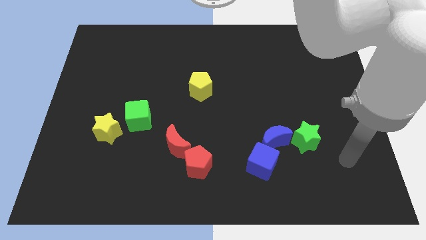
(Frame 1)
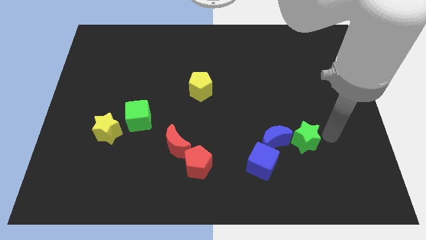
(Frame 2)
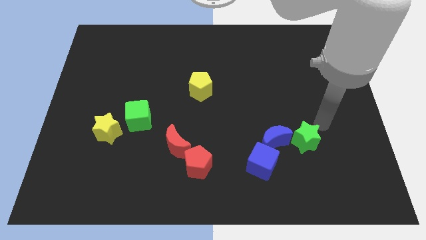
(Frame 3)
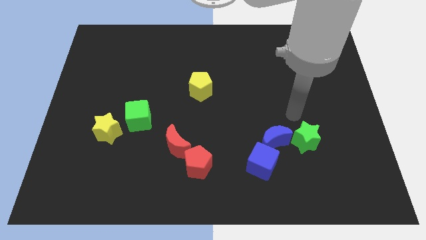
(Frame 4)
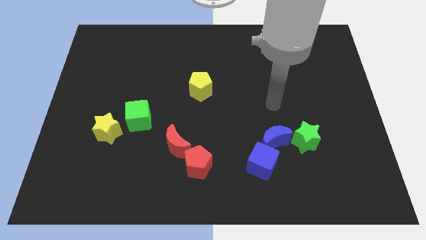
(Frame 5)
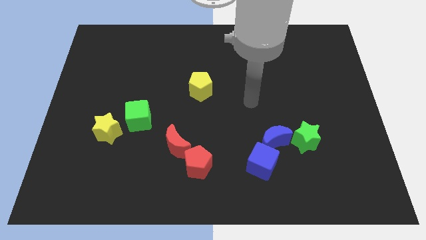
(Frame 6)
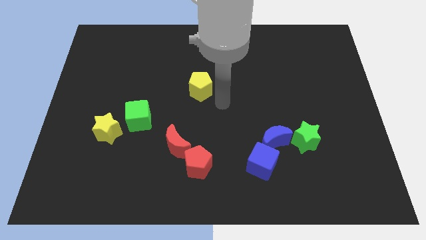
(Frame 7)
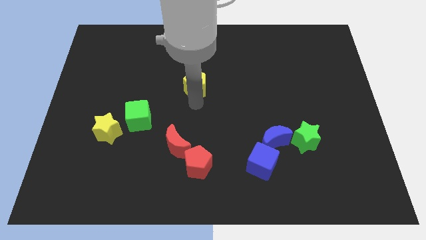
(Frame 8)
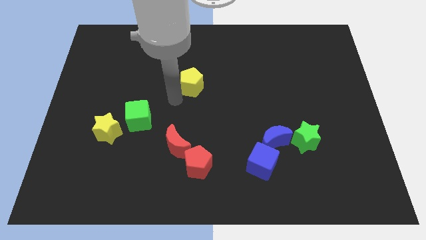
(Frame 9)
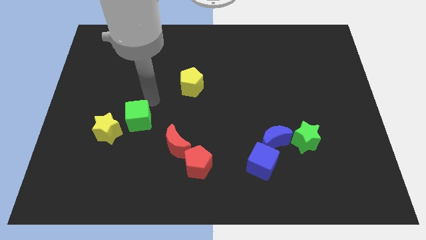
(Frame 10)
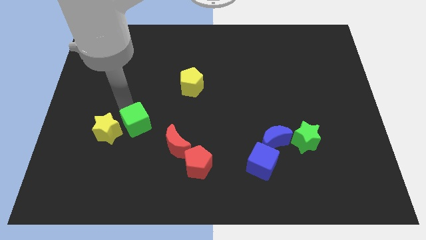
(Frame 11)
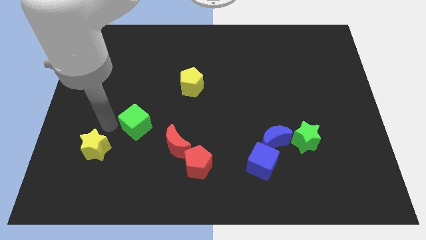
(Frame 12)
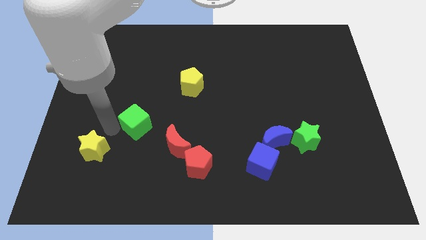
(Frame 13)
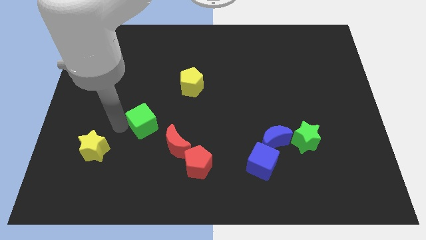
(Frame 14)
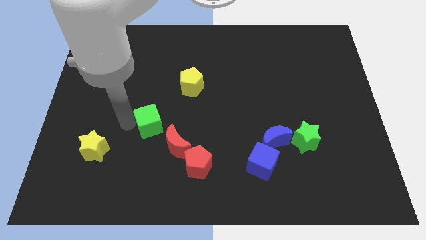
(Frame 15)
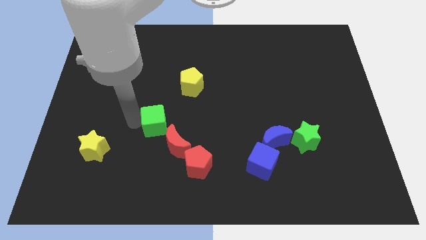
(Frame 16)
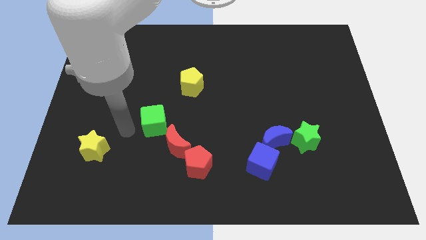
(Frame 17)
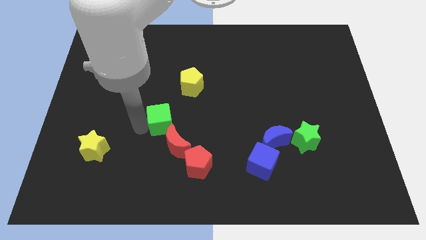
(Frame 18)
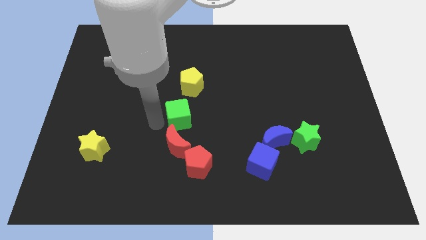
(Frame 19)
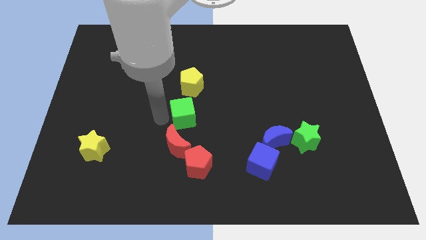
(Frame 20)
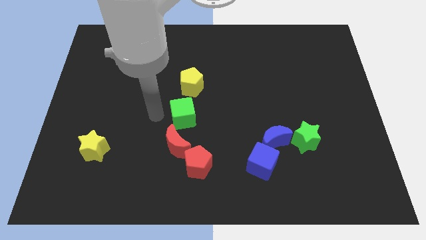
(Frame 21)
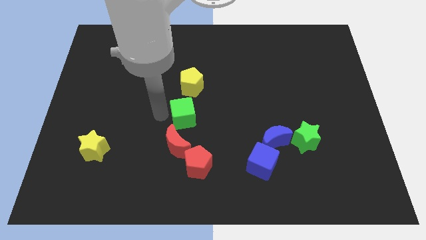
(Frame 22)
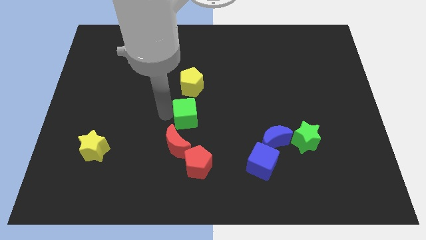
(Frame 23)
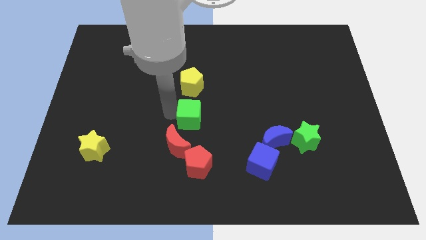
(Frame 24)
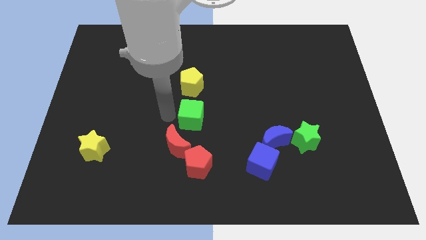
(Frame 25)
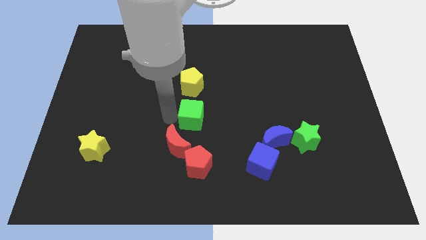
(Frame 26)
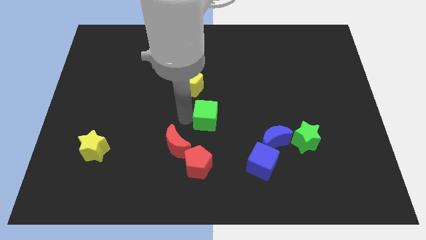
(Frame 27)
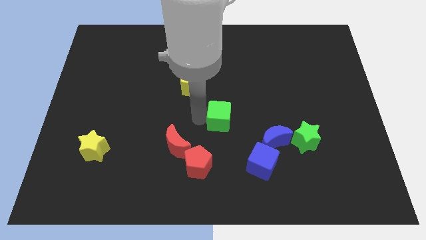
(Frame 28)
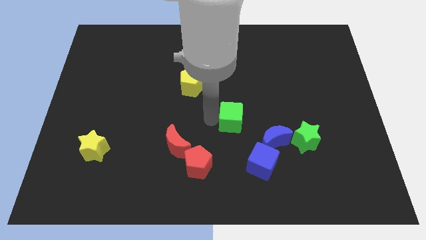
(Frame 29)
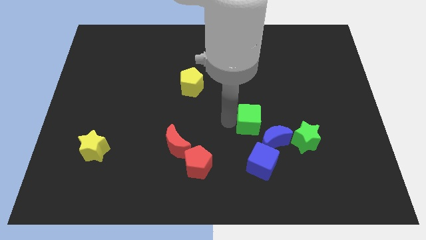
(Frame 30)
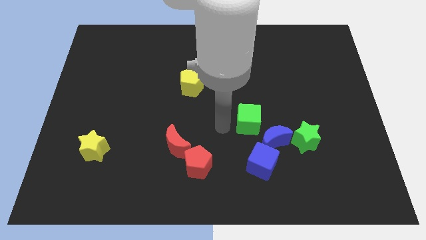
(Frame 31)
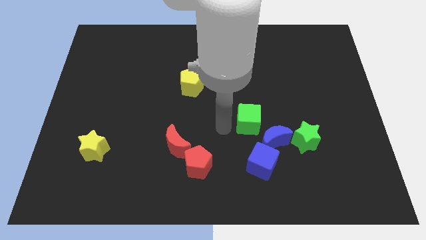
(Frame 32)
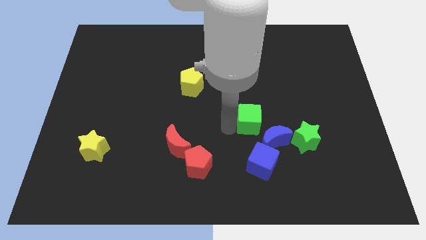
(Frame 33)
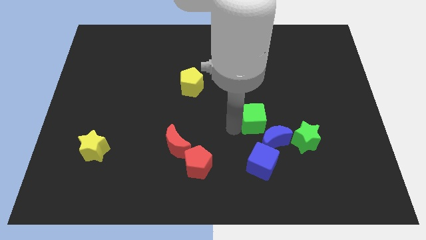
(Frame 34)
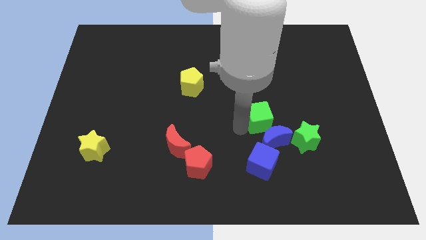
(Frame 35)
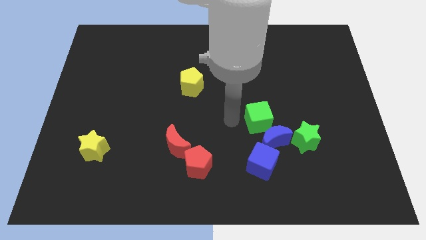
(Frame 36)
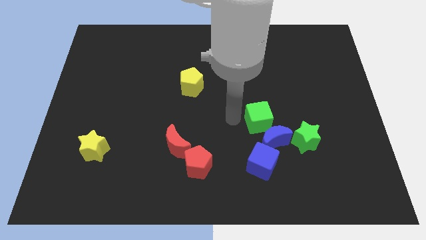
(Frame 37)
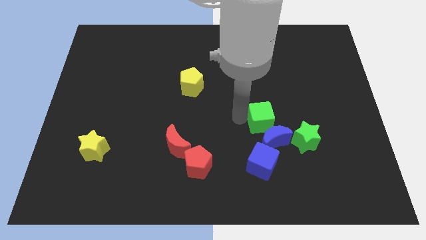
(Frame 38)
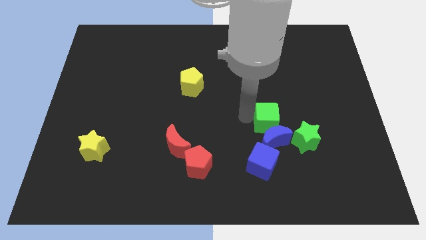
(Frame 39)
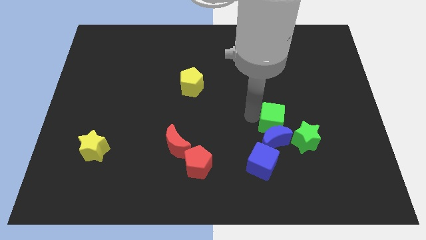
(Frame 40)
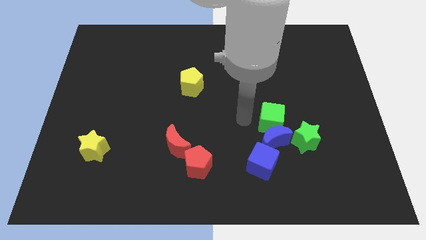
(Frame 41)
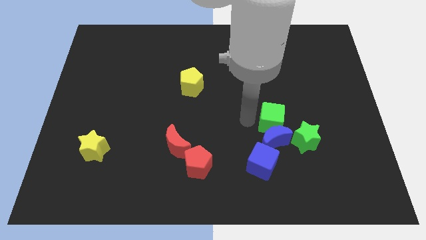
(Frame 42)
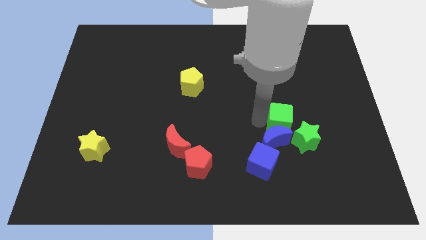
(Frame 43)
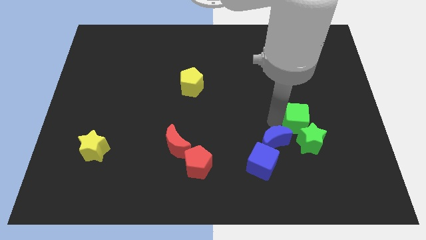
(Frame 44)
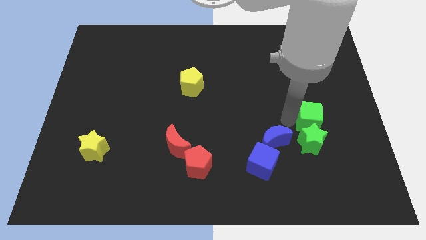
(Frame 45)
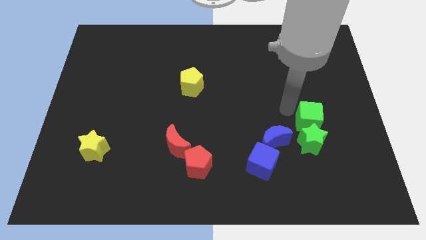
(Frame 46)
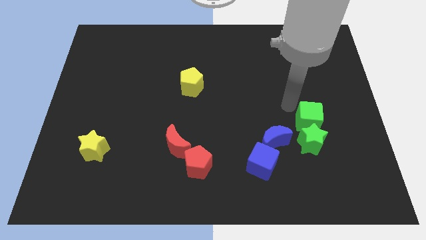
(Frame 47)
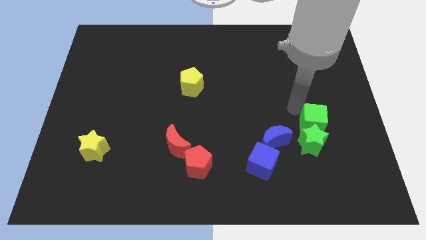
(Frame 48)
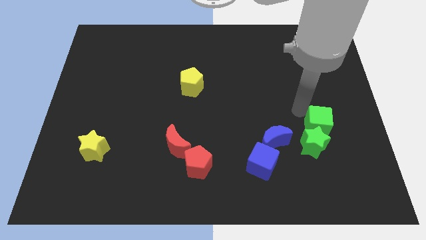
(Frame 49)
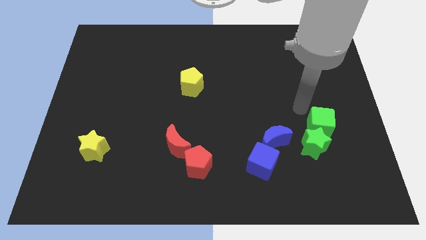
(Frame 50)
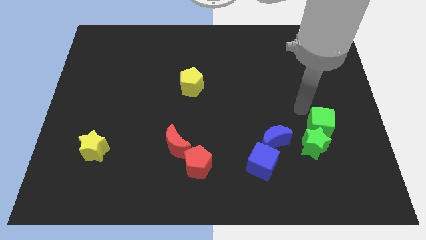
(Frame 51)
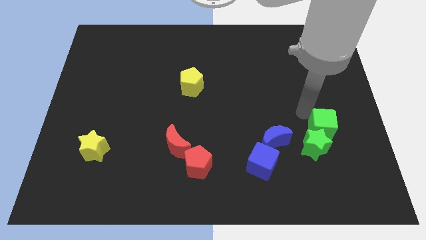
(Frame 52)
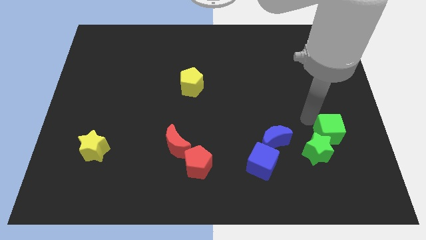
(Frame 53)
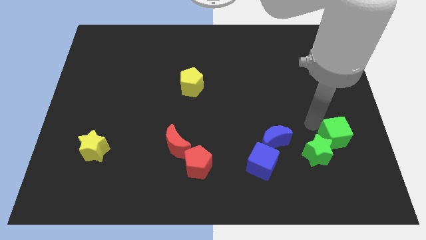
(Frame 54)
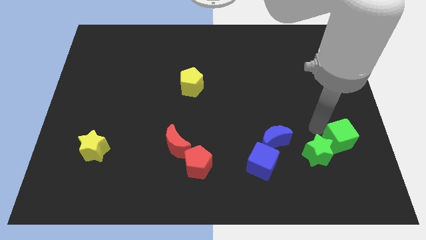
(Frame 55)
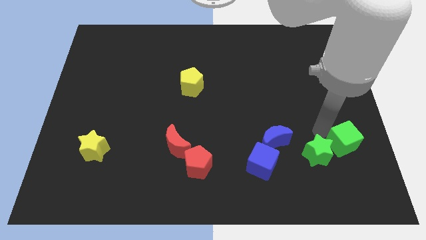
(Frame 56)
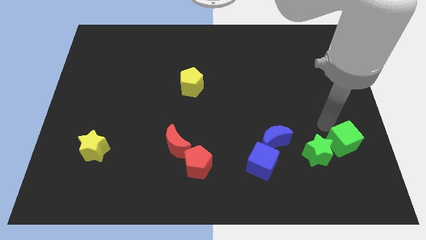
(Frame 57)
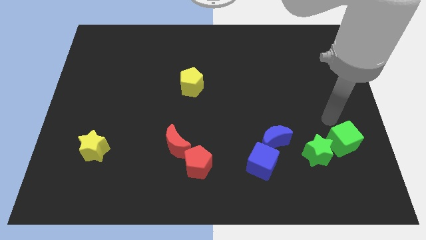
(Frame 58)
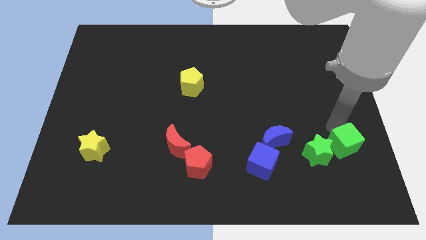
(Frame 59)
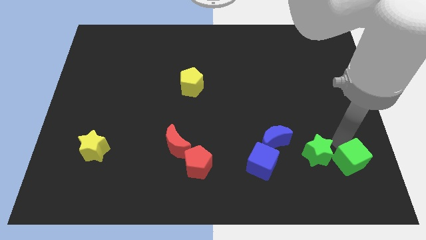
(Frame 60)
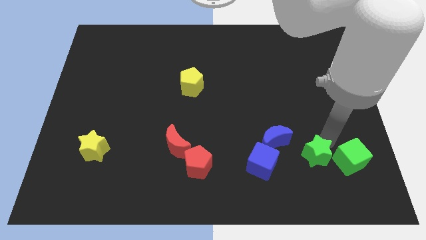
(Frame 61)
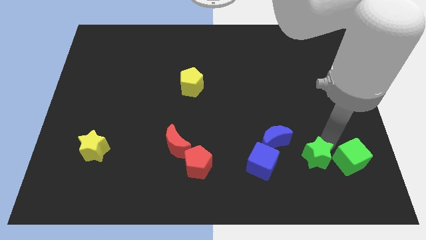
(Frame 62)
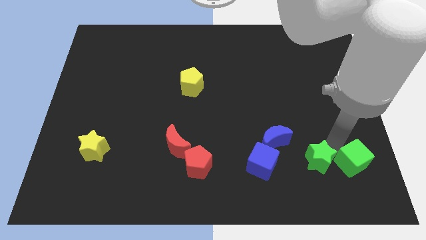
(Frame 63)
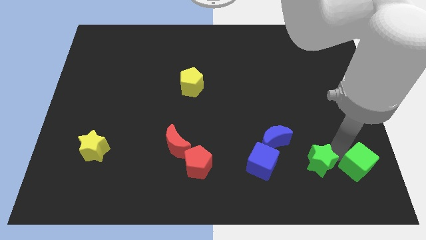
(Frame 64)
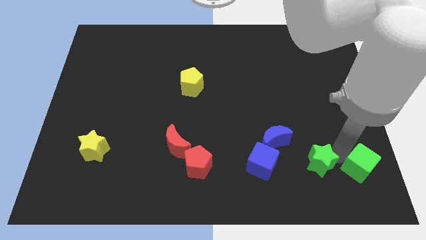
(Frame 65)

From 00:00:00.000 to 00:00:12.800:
put the green cube to the bottom right of the board

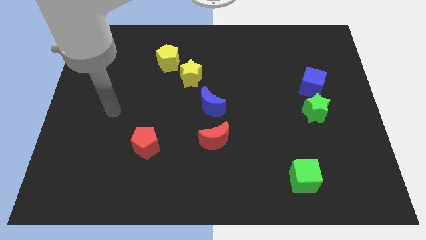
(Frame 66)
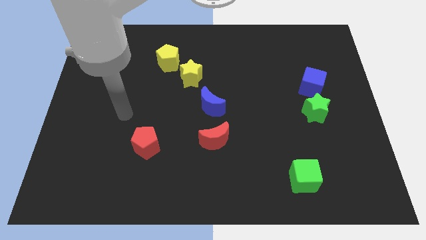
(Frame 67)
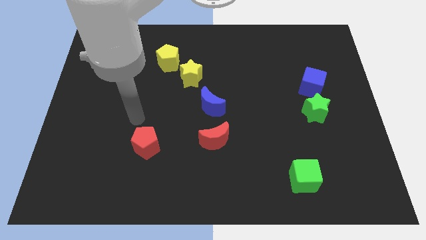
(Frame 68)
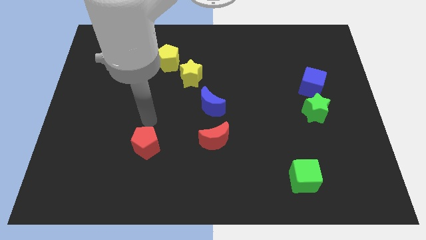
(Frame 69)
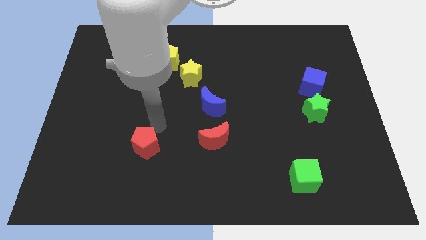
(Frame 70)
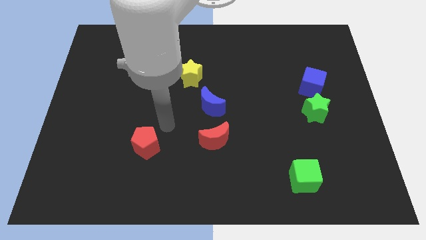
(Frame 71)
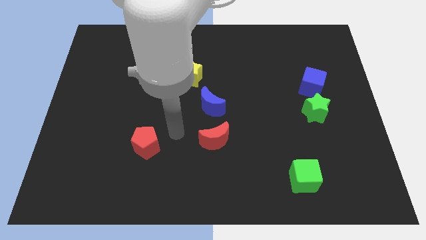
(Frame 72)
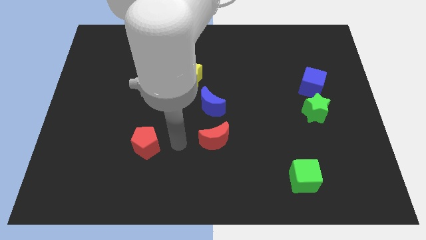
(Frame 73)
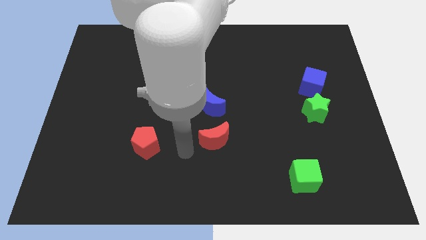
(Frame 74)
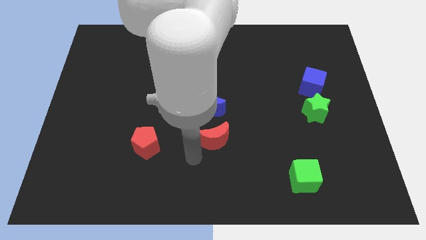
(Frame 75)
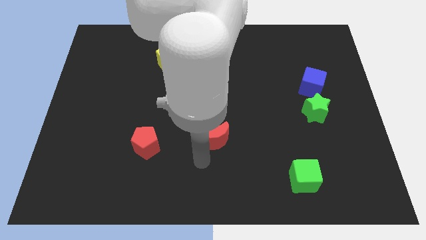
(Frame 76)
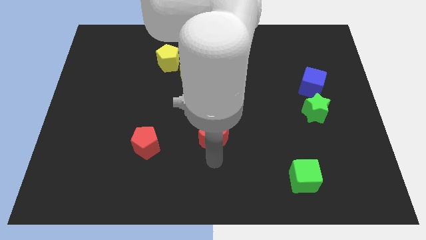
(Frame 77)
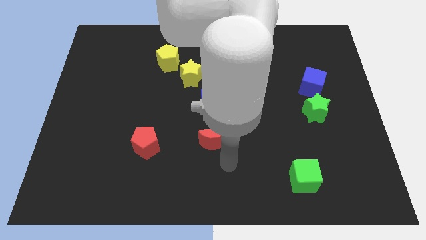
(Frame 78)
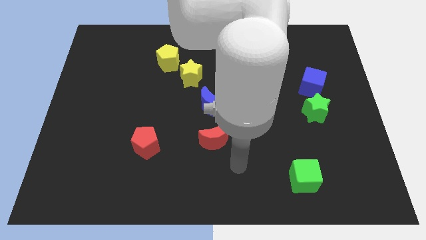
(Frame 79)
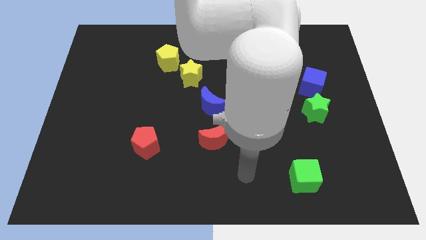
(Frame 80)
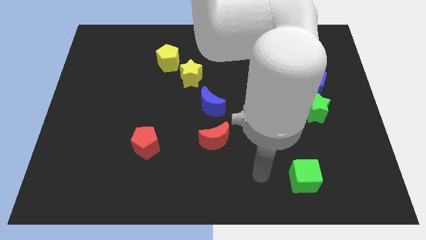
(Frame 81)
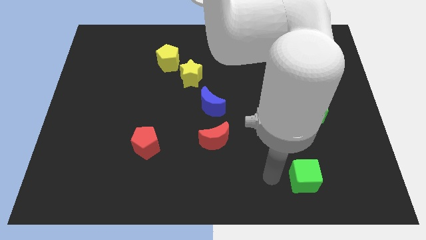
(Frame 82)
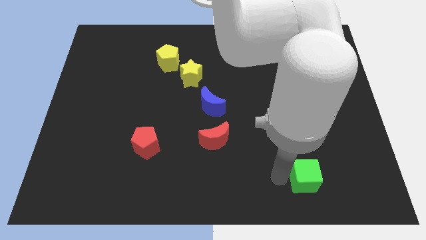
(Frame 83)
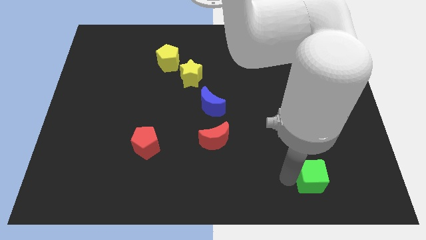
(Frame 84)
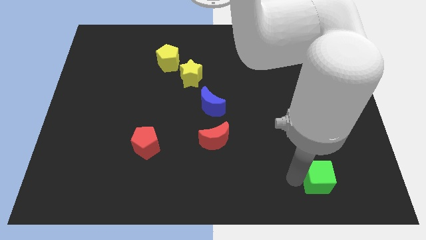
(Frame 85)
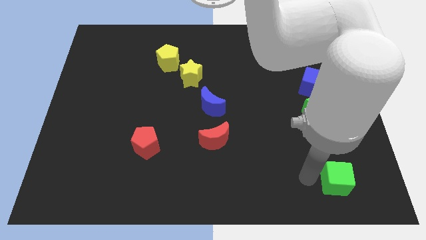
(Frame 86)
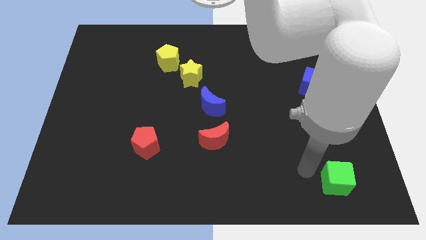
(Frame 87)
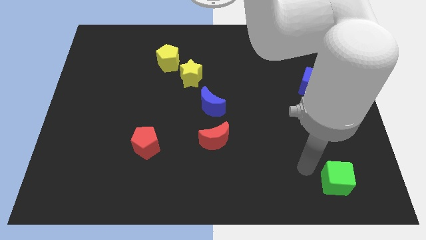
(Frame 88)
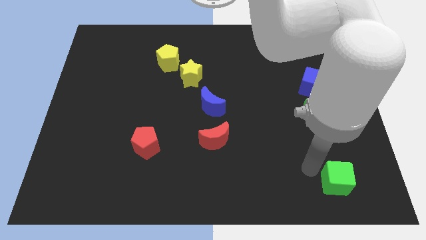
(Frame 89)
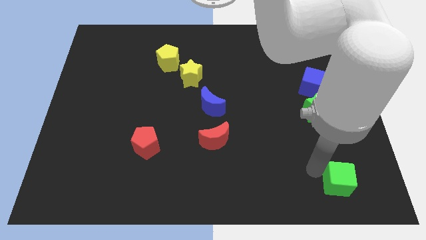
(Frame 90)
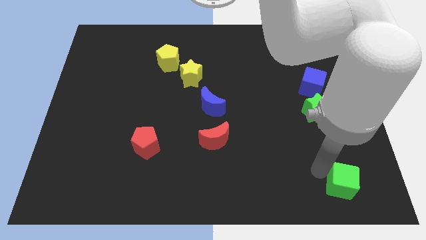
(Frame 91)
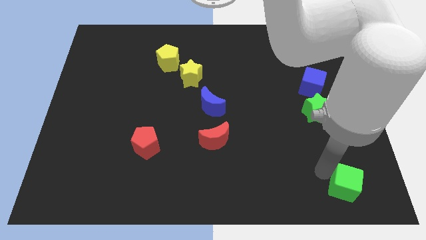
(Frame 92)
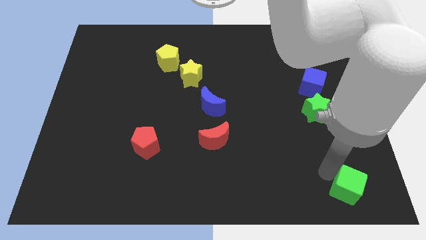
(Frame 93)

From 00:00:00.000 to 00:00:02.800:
push the green cube to the lower right corner
